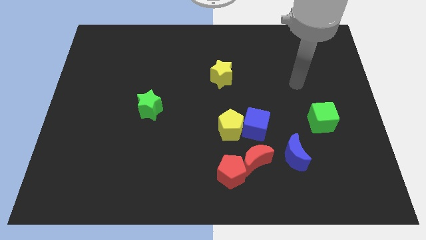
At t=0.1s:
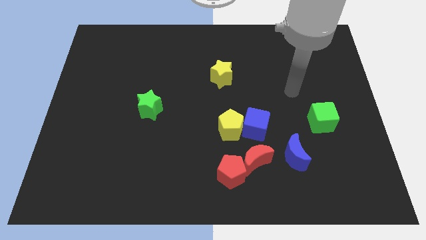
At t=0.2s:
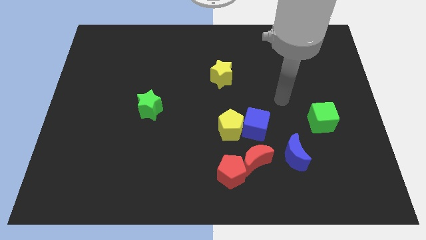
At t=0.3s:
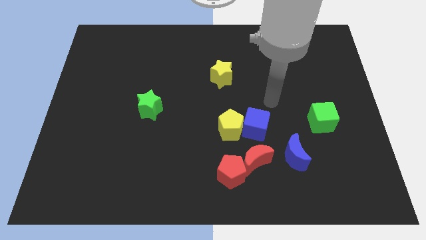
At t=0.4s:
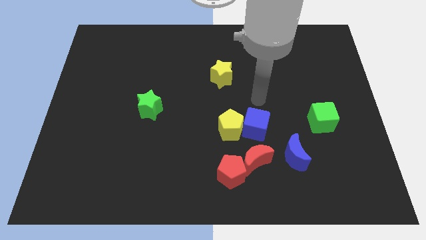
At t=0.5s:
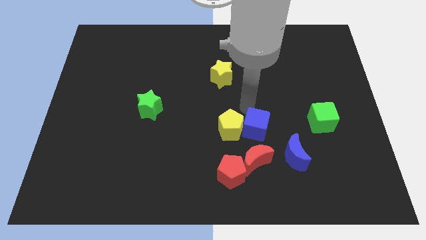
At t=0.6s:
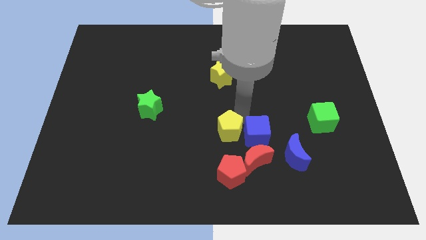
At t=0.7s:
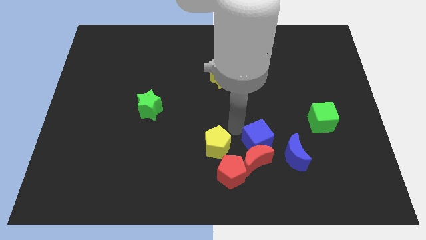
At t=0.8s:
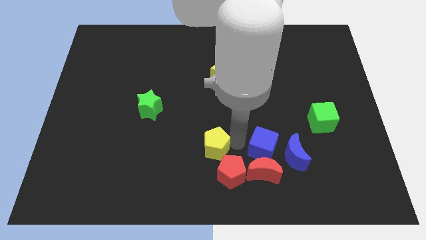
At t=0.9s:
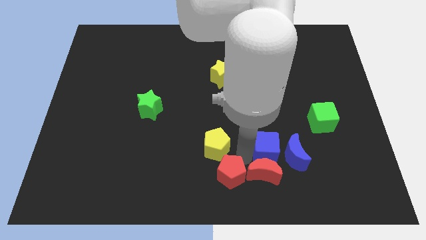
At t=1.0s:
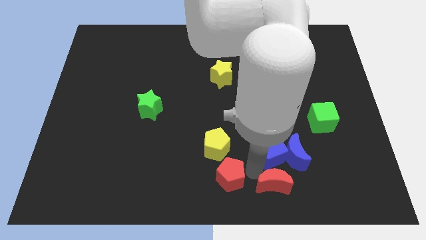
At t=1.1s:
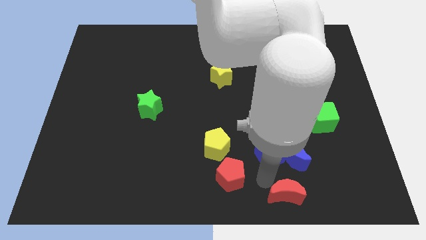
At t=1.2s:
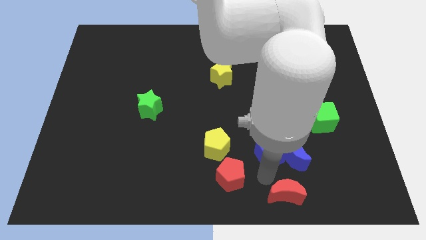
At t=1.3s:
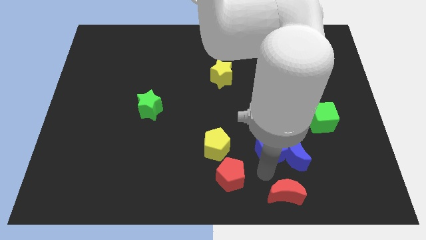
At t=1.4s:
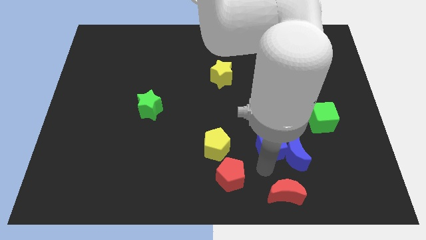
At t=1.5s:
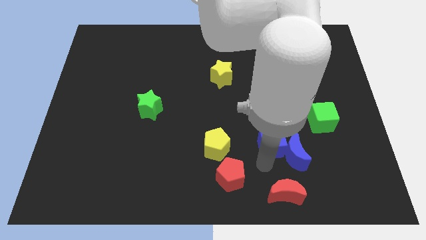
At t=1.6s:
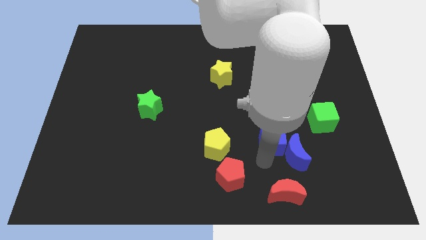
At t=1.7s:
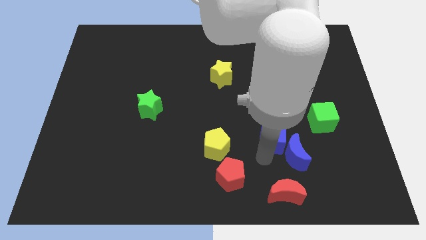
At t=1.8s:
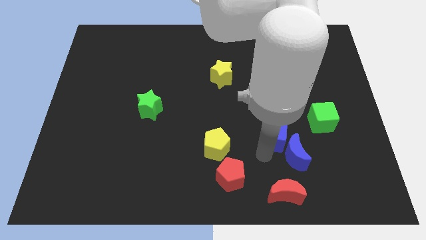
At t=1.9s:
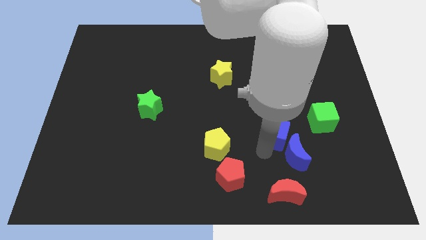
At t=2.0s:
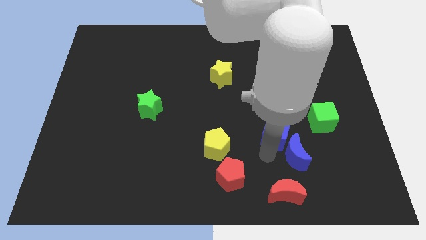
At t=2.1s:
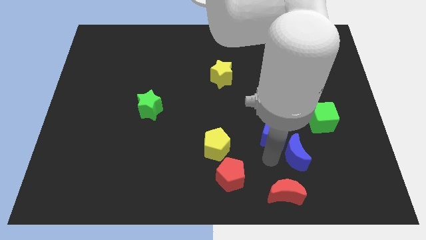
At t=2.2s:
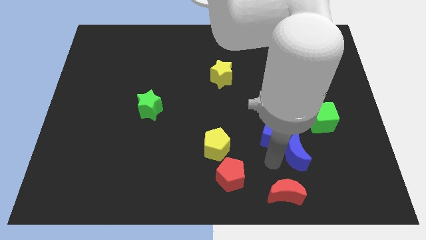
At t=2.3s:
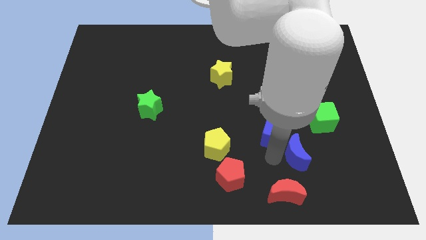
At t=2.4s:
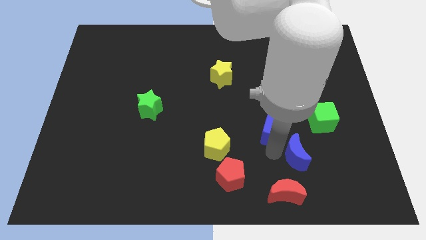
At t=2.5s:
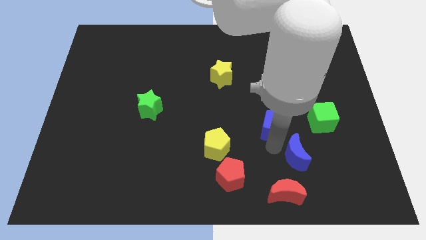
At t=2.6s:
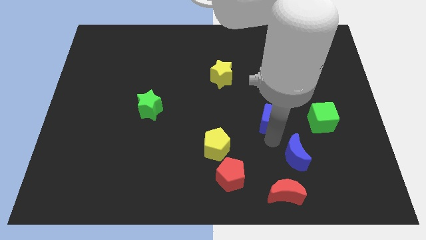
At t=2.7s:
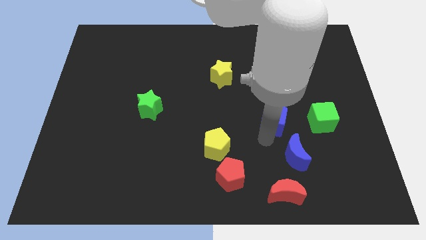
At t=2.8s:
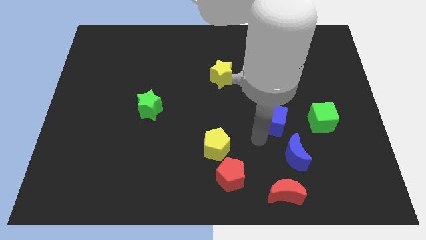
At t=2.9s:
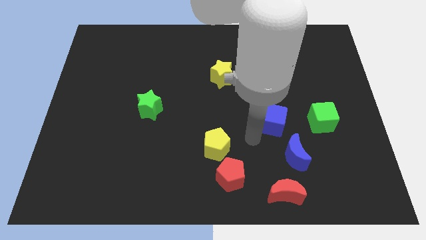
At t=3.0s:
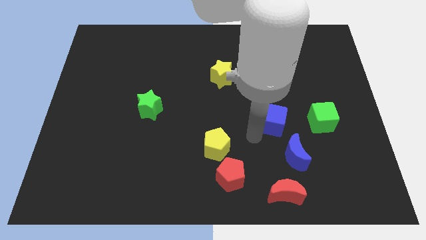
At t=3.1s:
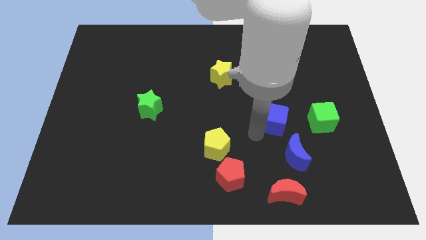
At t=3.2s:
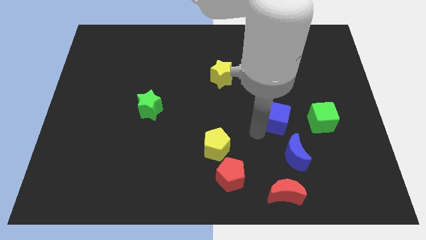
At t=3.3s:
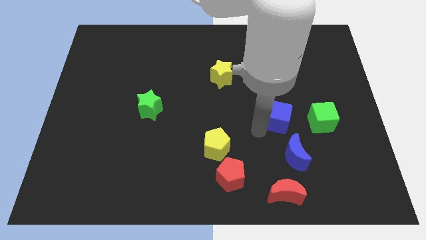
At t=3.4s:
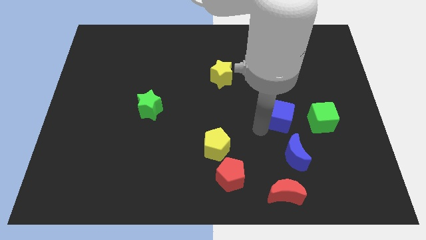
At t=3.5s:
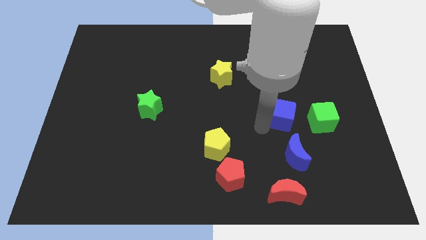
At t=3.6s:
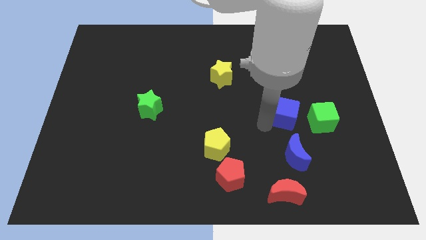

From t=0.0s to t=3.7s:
push the blue cube a little upwards and right

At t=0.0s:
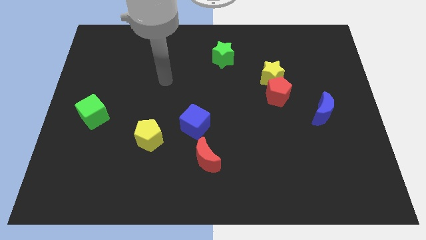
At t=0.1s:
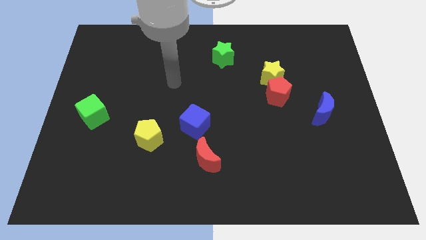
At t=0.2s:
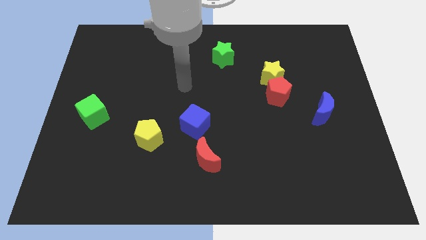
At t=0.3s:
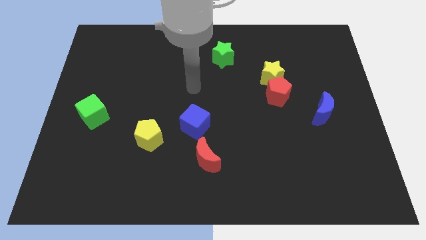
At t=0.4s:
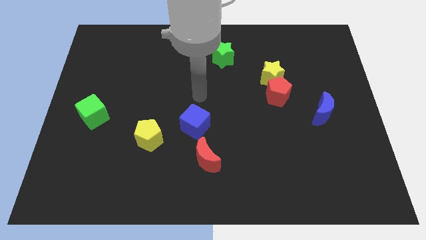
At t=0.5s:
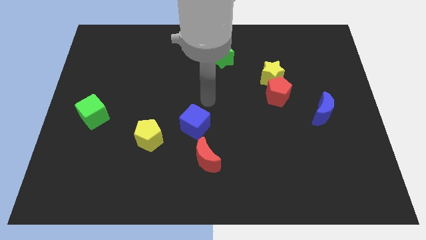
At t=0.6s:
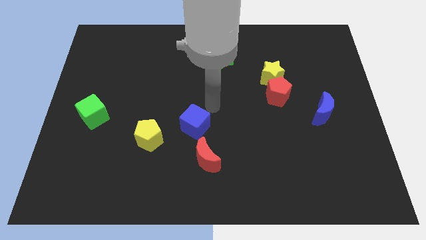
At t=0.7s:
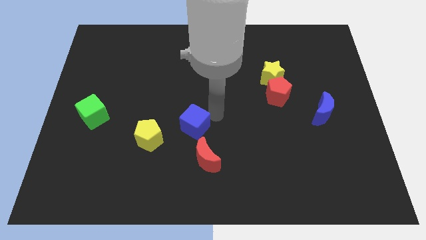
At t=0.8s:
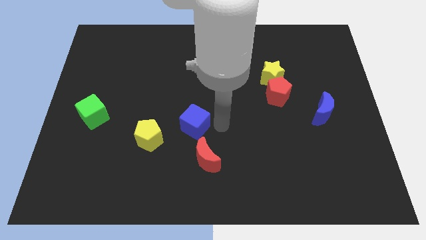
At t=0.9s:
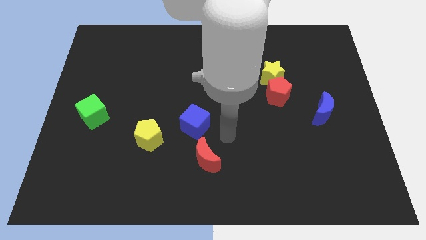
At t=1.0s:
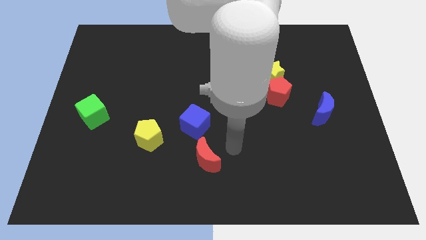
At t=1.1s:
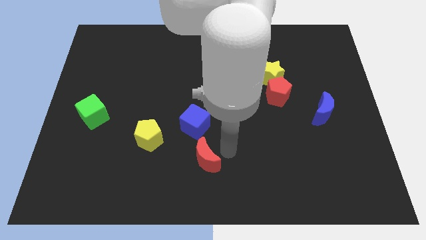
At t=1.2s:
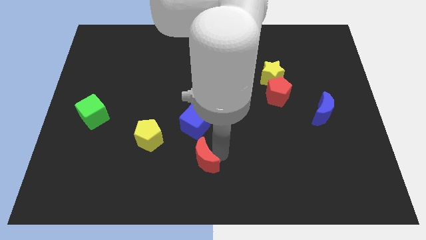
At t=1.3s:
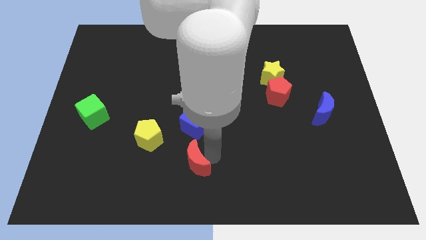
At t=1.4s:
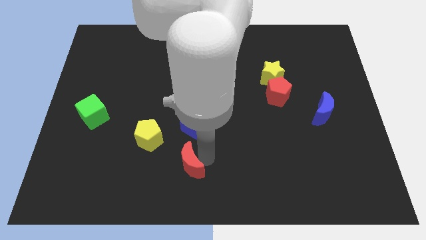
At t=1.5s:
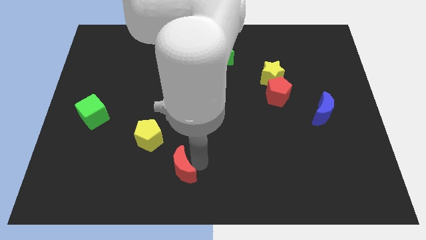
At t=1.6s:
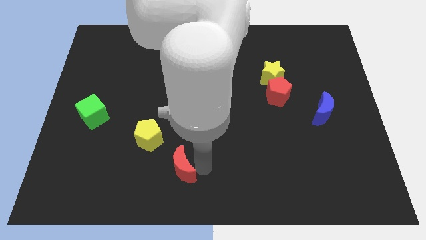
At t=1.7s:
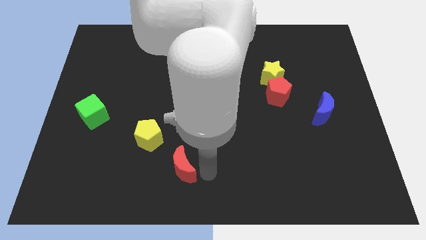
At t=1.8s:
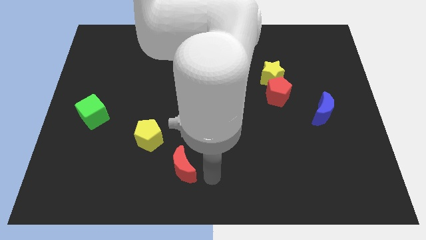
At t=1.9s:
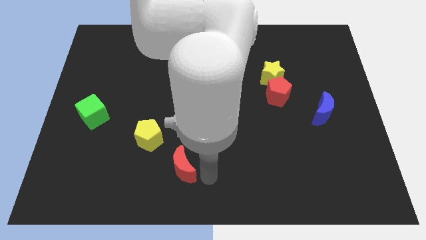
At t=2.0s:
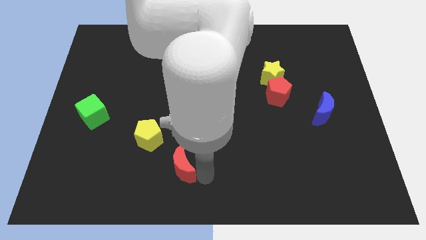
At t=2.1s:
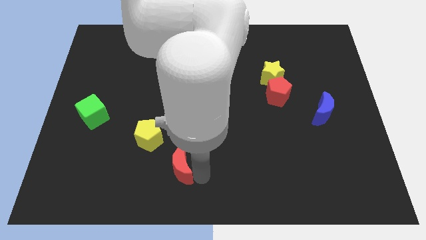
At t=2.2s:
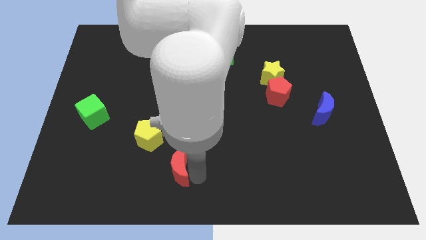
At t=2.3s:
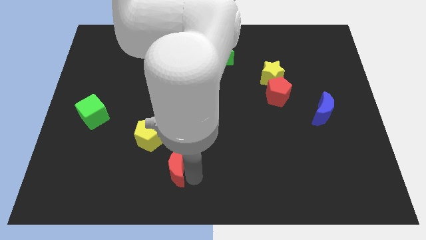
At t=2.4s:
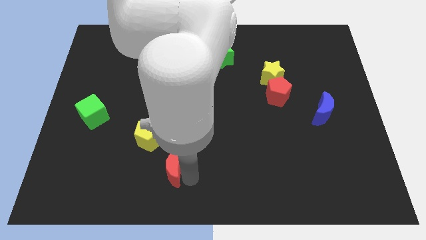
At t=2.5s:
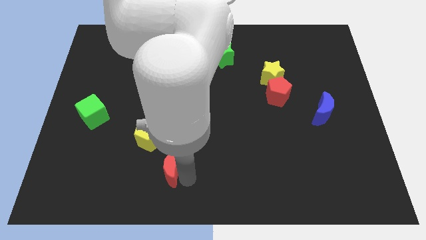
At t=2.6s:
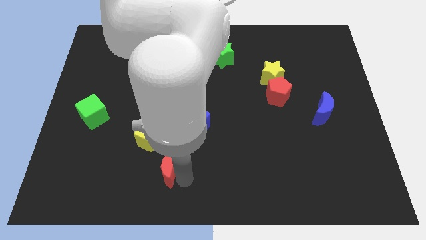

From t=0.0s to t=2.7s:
push the red moon to the left a little

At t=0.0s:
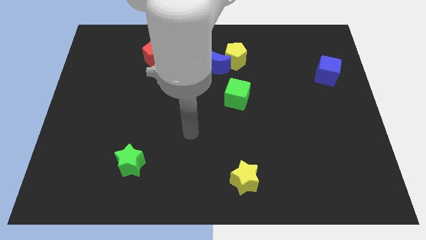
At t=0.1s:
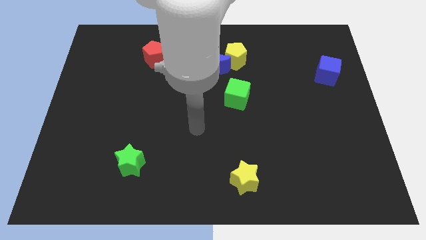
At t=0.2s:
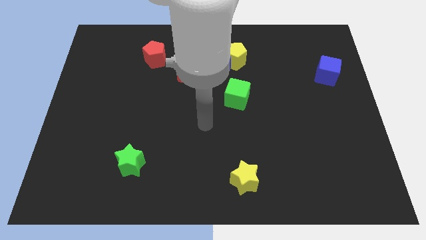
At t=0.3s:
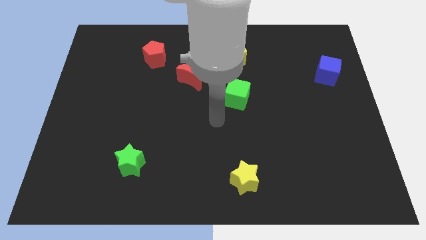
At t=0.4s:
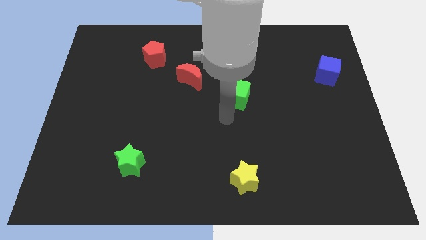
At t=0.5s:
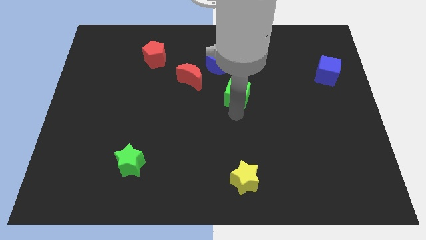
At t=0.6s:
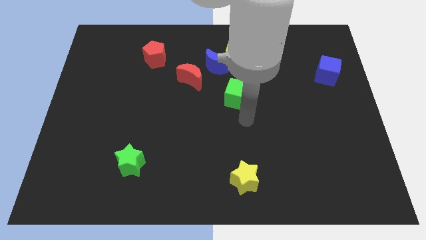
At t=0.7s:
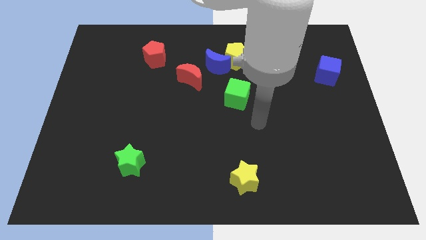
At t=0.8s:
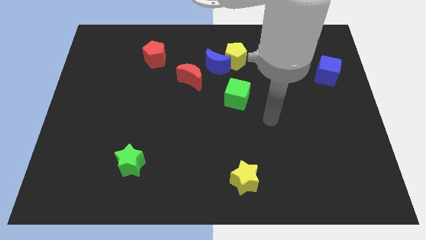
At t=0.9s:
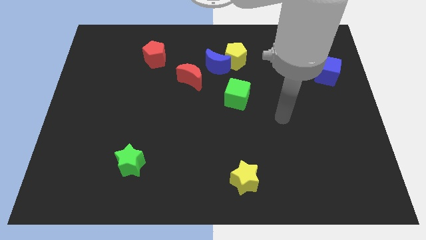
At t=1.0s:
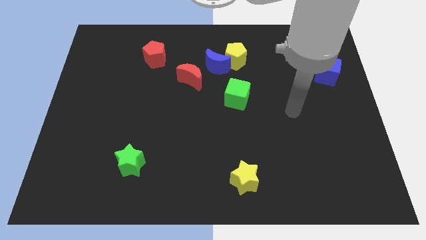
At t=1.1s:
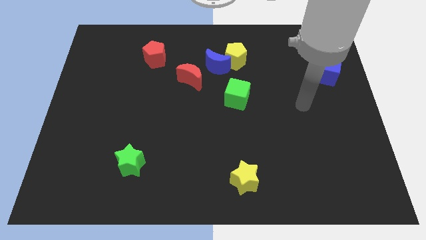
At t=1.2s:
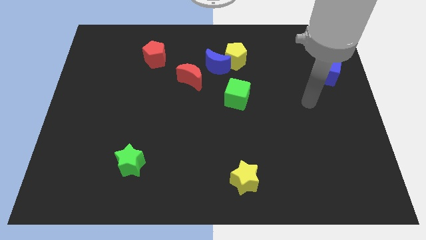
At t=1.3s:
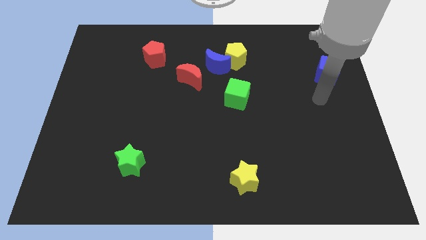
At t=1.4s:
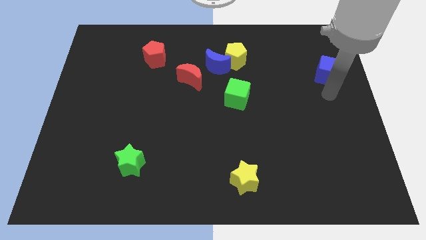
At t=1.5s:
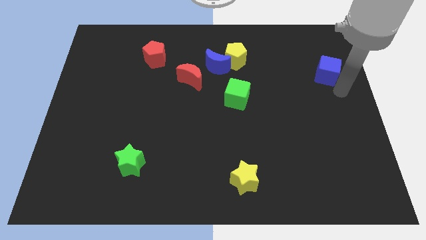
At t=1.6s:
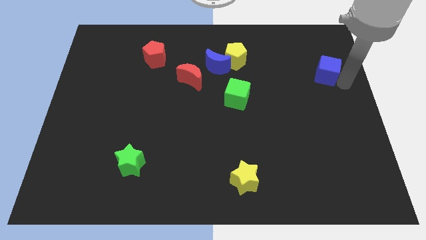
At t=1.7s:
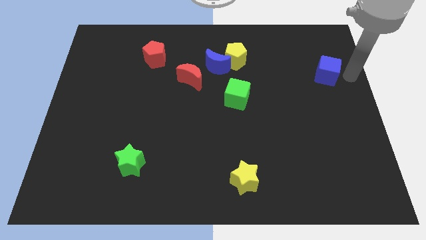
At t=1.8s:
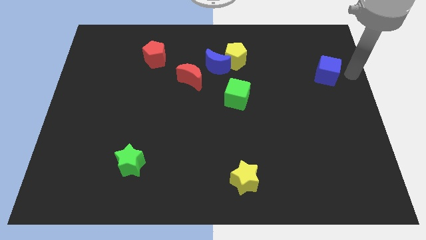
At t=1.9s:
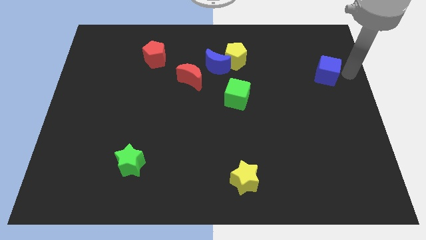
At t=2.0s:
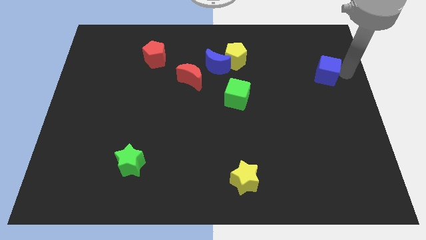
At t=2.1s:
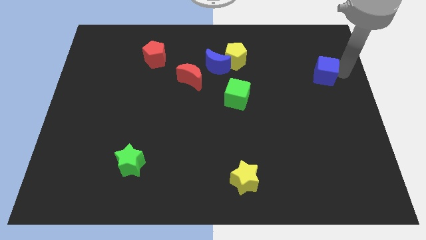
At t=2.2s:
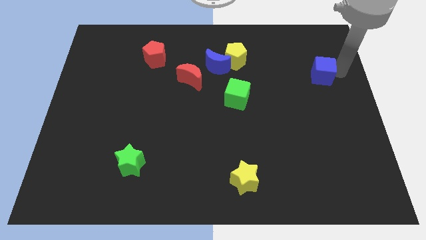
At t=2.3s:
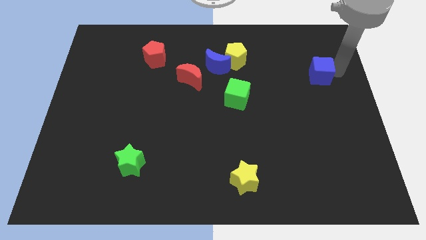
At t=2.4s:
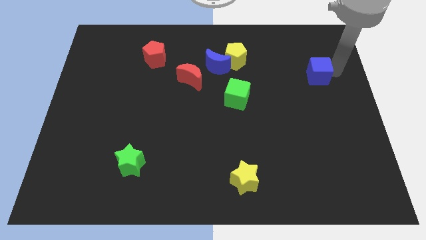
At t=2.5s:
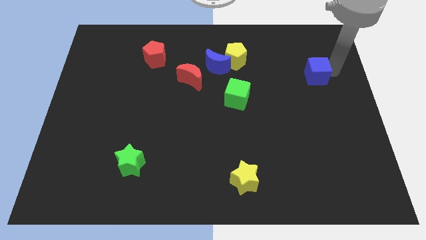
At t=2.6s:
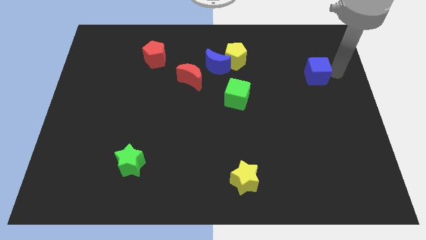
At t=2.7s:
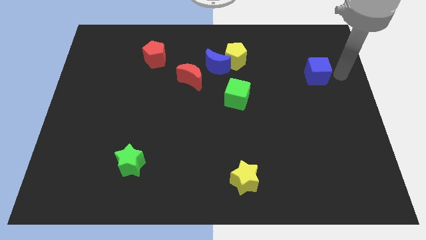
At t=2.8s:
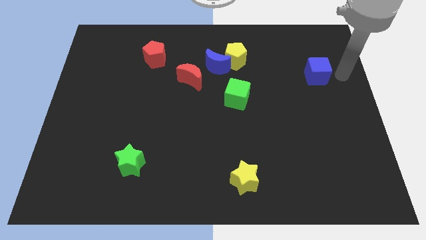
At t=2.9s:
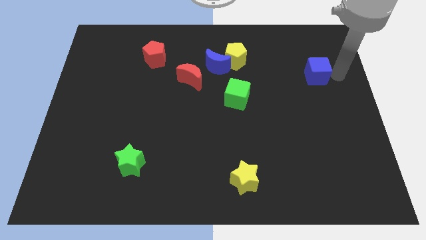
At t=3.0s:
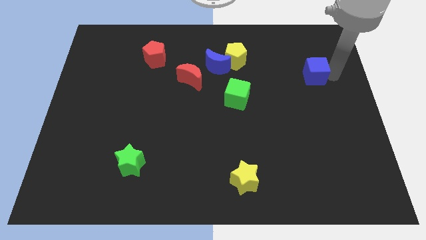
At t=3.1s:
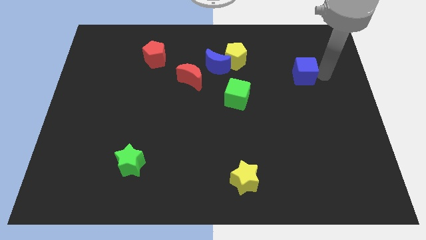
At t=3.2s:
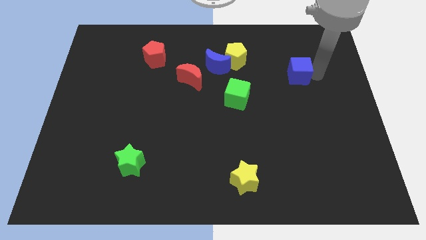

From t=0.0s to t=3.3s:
slide the blue cube somewhat to the left
